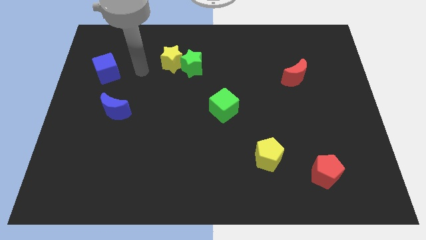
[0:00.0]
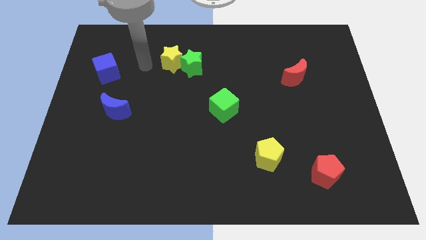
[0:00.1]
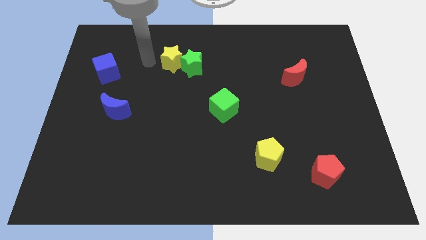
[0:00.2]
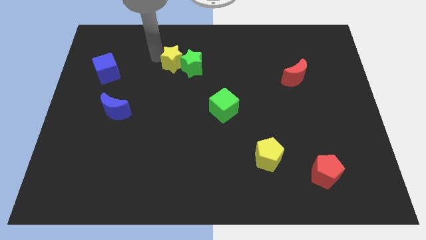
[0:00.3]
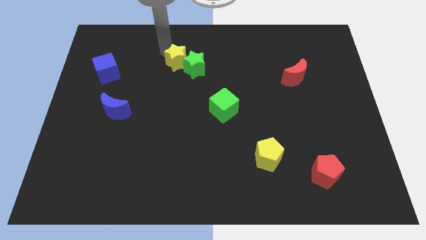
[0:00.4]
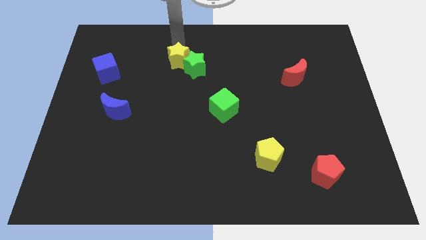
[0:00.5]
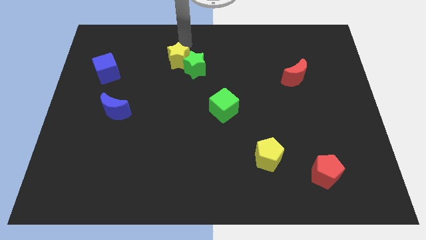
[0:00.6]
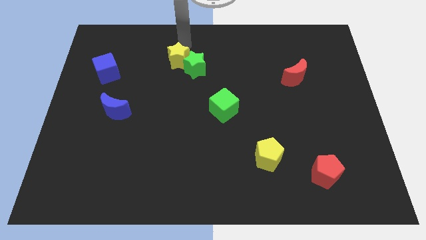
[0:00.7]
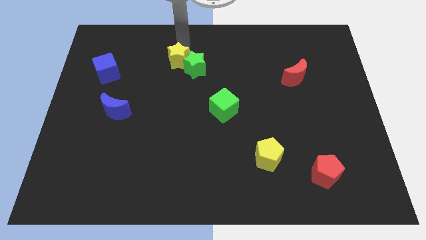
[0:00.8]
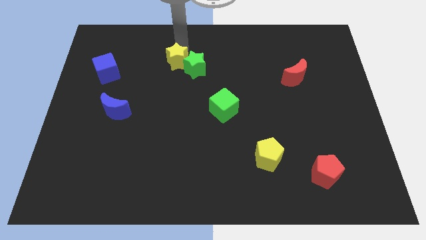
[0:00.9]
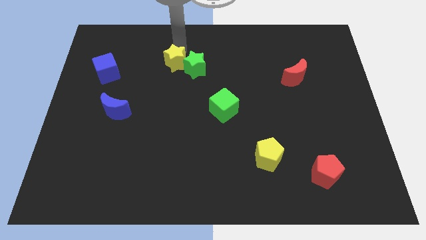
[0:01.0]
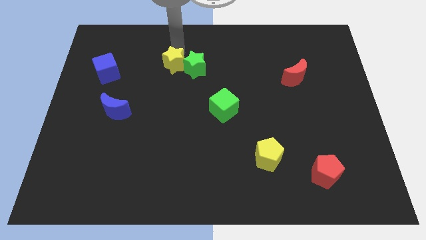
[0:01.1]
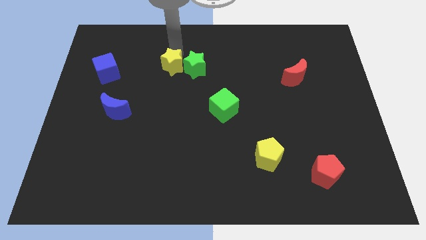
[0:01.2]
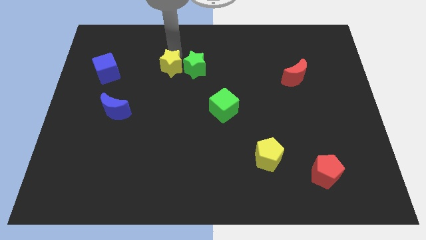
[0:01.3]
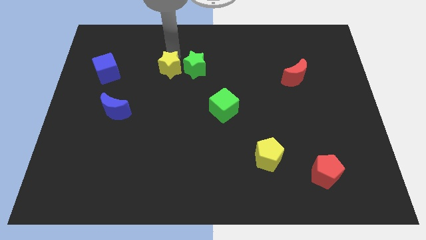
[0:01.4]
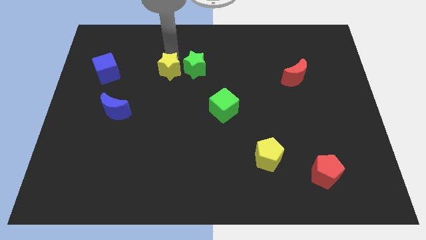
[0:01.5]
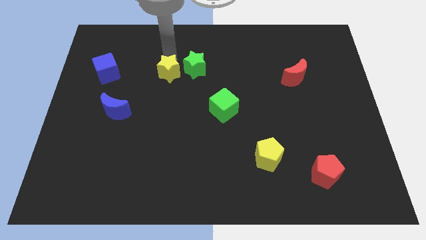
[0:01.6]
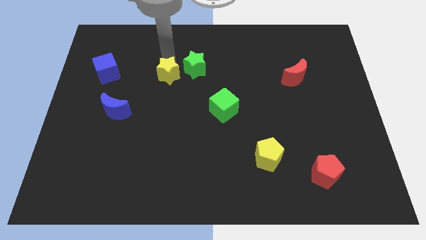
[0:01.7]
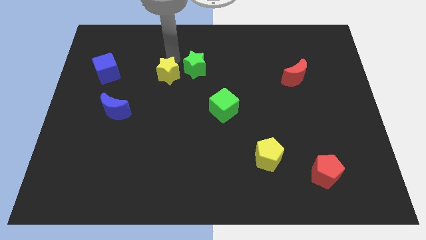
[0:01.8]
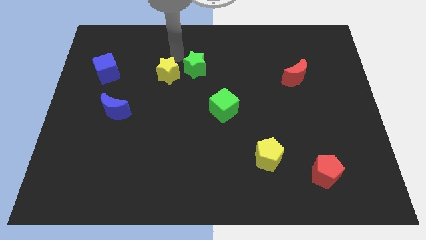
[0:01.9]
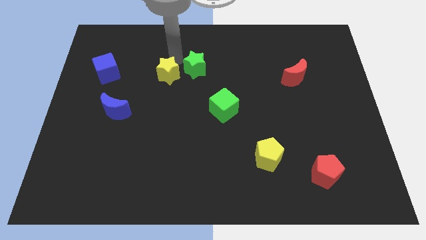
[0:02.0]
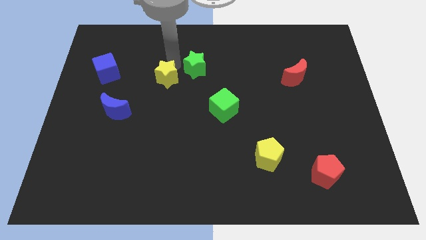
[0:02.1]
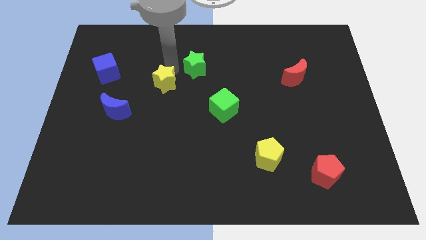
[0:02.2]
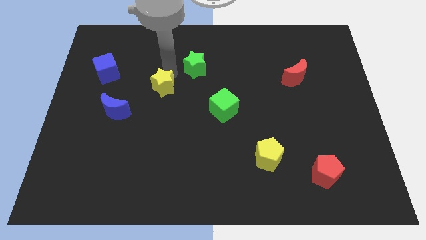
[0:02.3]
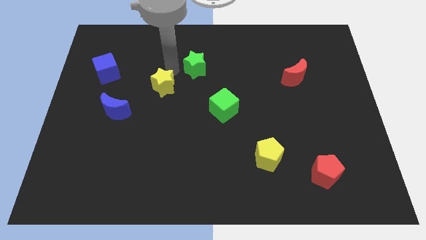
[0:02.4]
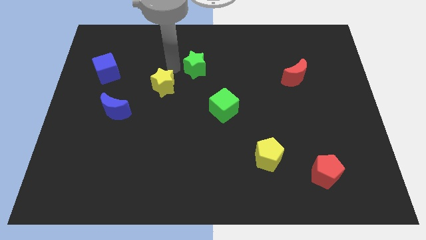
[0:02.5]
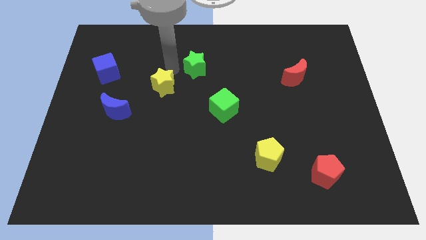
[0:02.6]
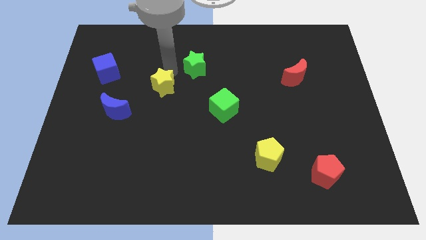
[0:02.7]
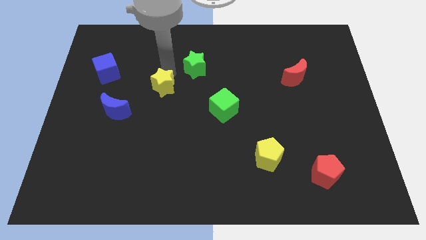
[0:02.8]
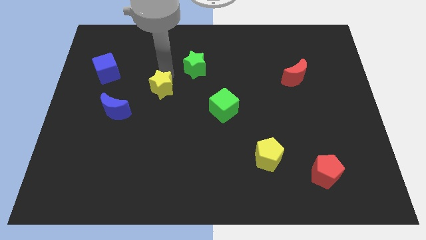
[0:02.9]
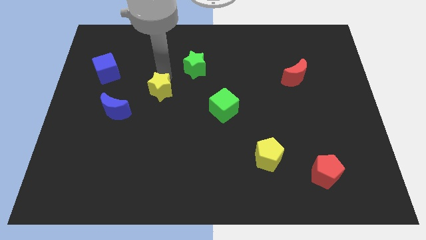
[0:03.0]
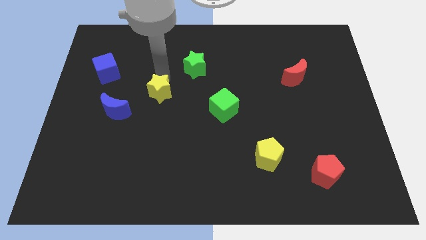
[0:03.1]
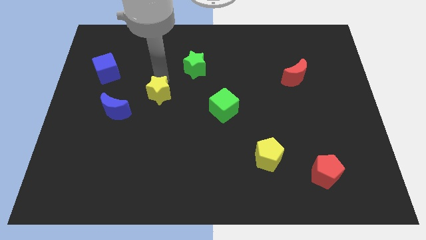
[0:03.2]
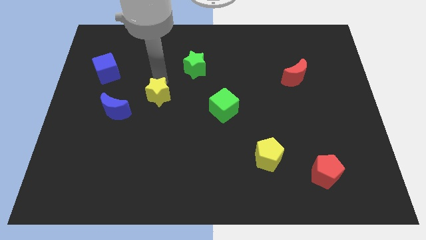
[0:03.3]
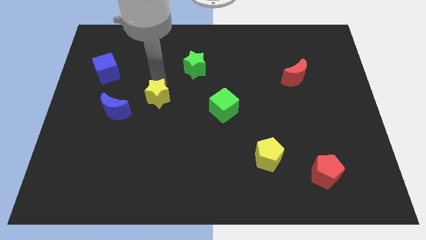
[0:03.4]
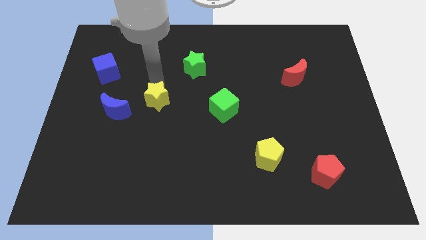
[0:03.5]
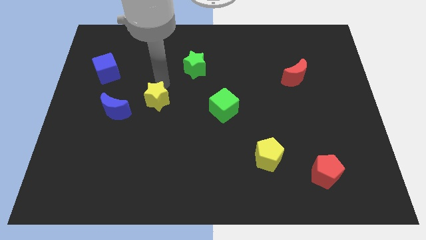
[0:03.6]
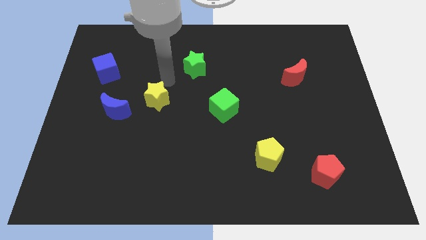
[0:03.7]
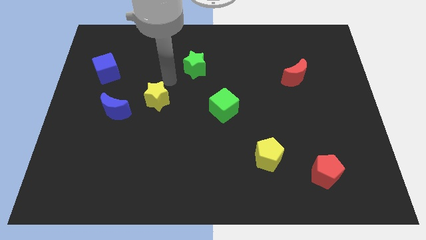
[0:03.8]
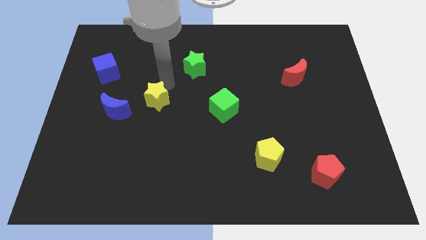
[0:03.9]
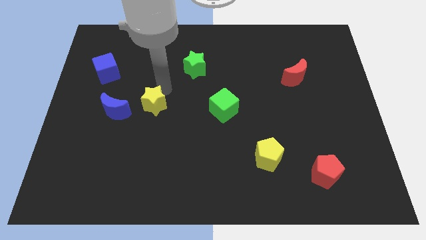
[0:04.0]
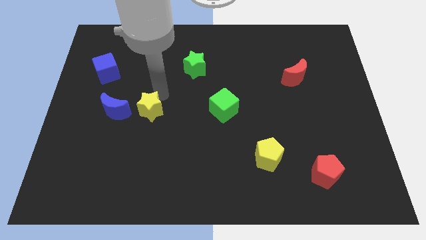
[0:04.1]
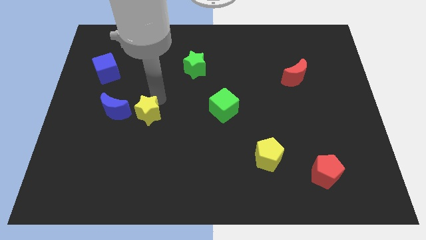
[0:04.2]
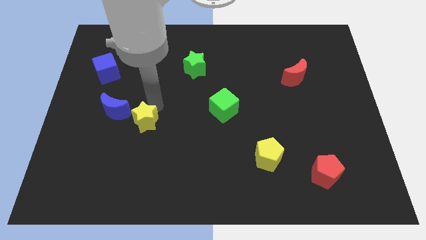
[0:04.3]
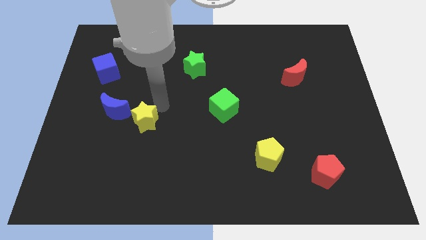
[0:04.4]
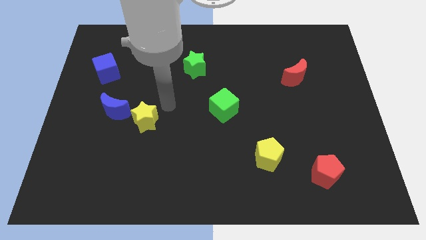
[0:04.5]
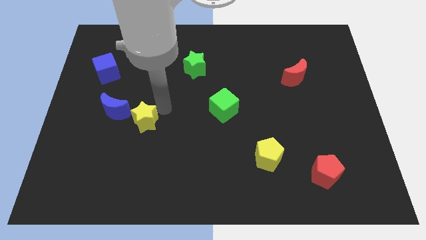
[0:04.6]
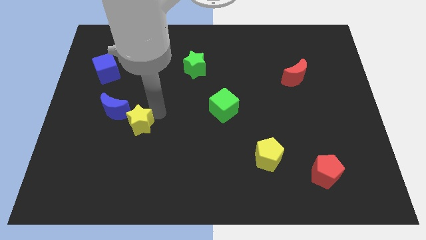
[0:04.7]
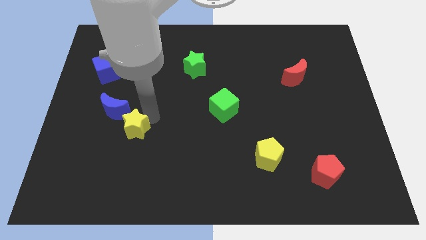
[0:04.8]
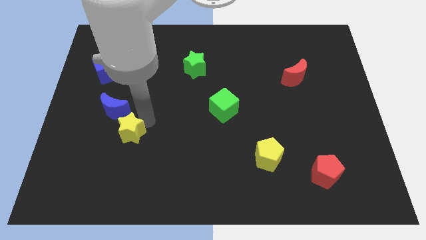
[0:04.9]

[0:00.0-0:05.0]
move the yellow star below the blue moon

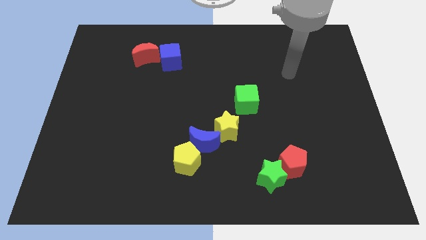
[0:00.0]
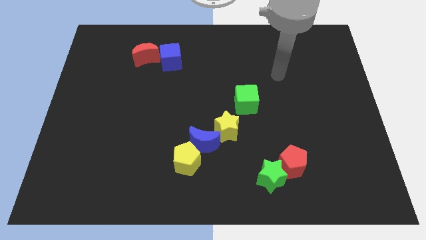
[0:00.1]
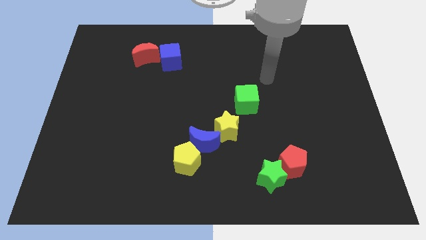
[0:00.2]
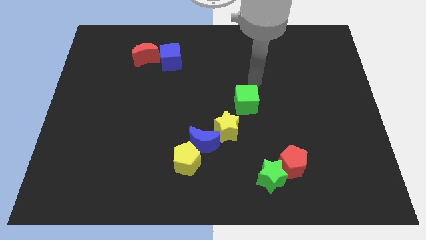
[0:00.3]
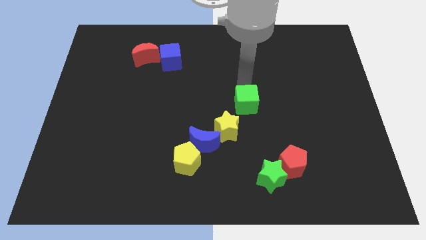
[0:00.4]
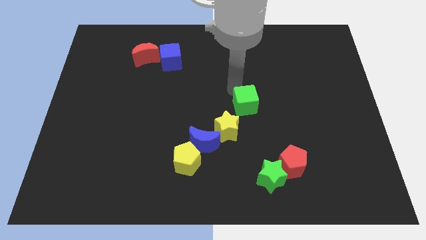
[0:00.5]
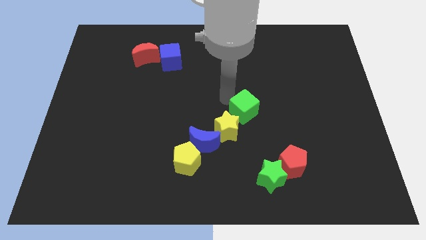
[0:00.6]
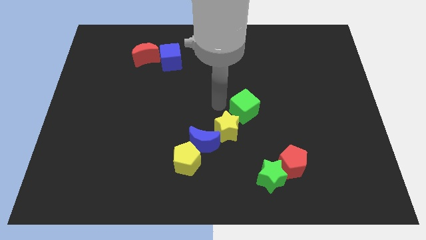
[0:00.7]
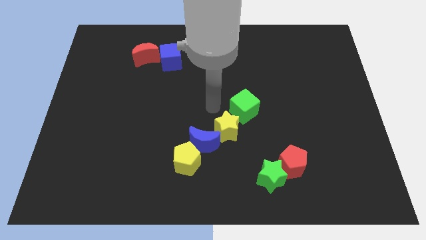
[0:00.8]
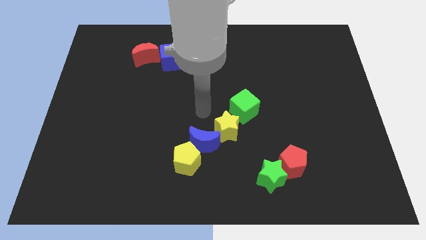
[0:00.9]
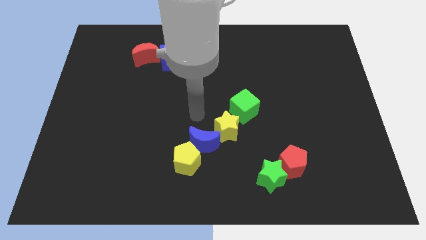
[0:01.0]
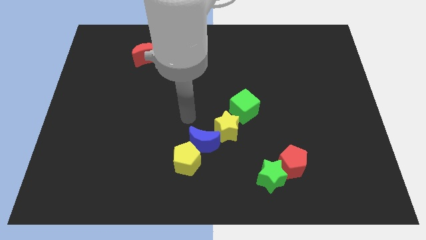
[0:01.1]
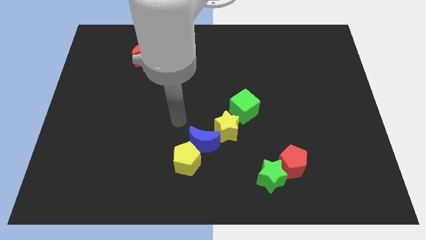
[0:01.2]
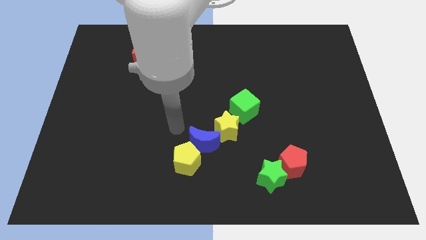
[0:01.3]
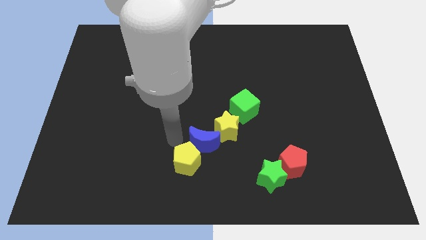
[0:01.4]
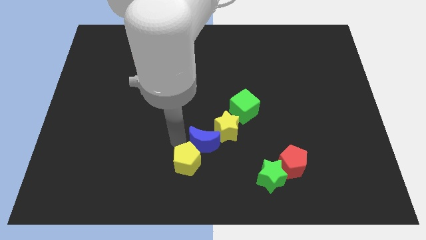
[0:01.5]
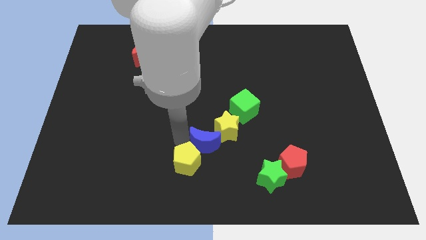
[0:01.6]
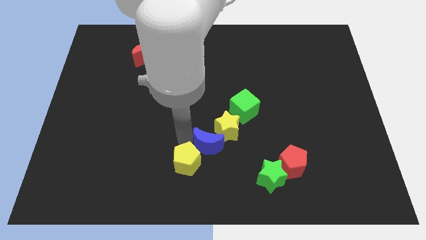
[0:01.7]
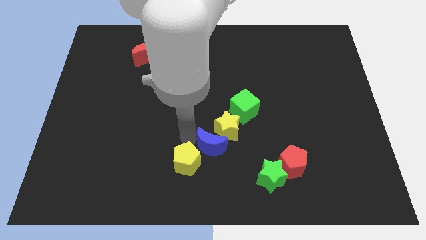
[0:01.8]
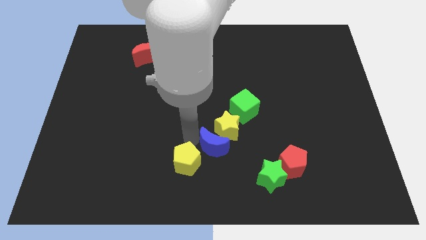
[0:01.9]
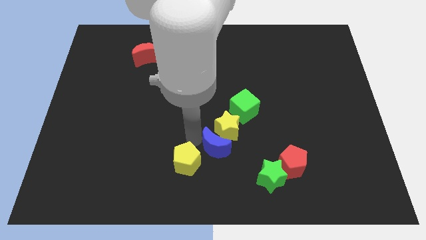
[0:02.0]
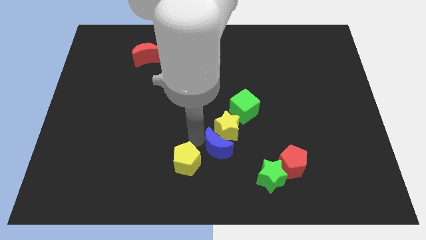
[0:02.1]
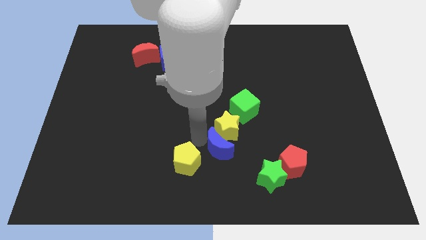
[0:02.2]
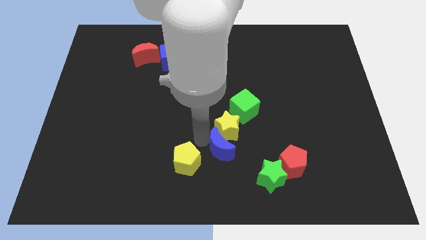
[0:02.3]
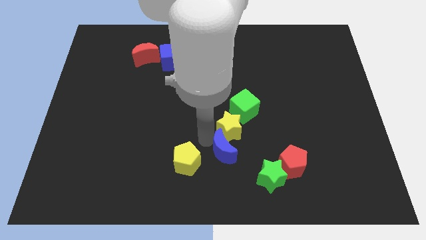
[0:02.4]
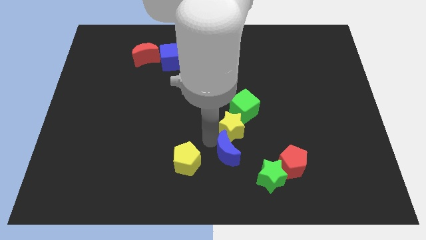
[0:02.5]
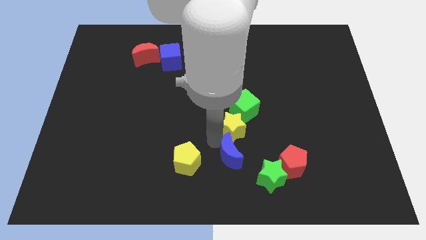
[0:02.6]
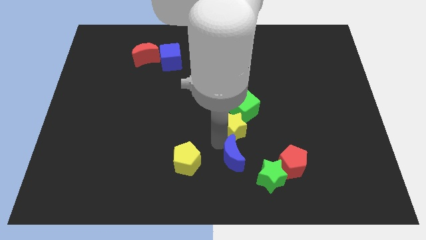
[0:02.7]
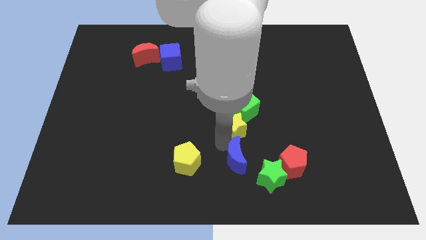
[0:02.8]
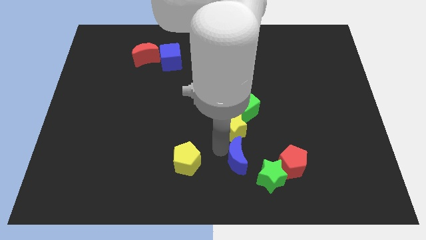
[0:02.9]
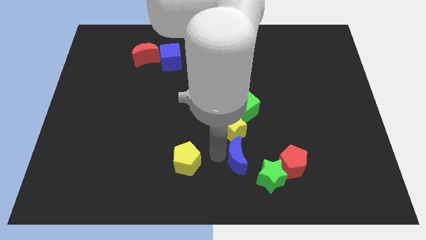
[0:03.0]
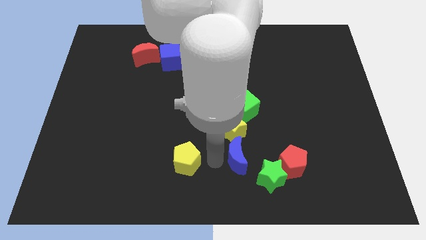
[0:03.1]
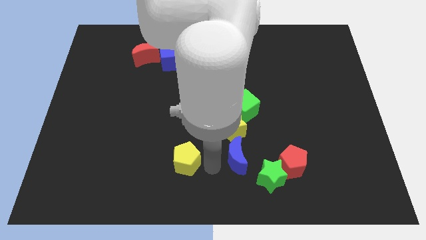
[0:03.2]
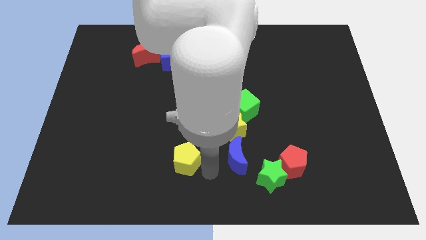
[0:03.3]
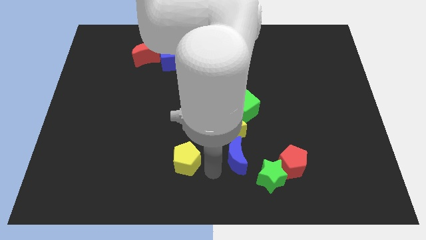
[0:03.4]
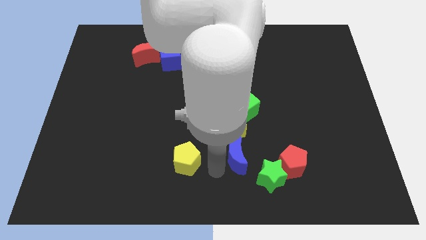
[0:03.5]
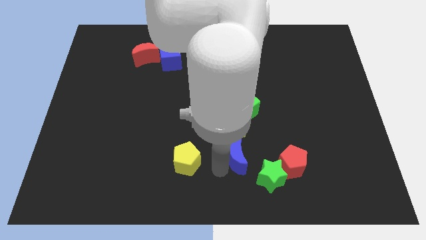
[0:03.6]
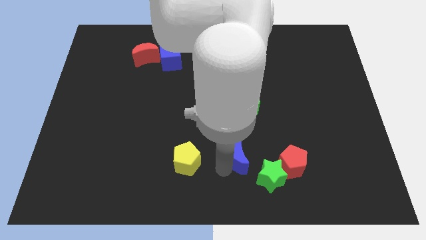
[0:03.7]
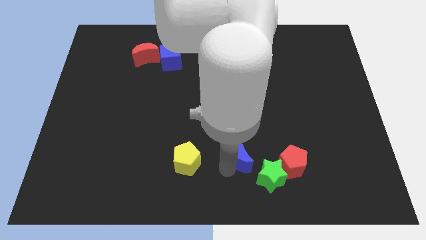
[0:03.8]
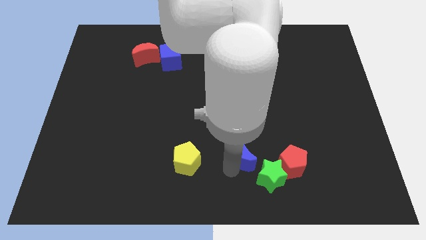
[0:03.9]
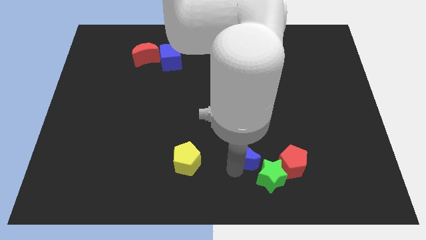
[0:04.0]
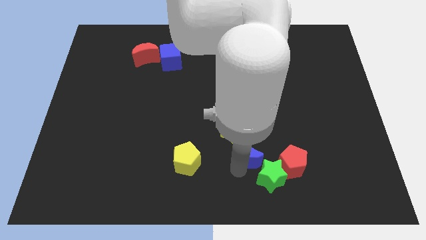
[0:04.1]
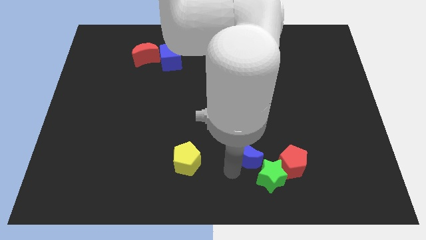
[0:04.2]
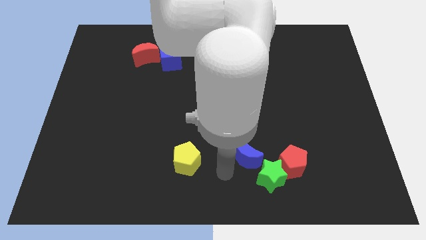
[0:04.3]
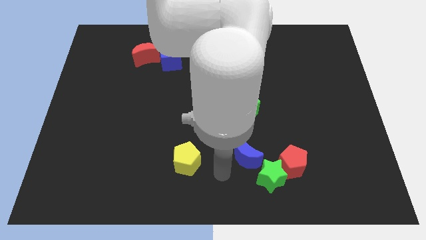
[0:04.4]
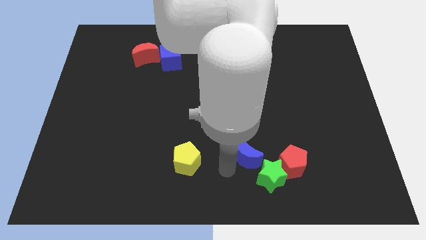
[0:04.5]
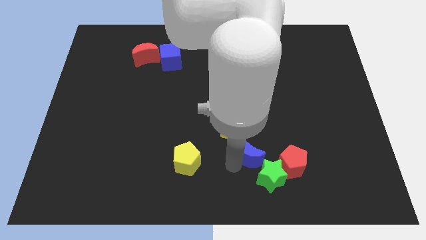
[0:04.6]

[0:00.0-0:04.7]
move the blue moon diagonally up and to the left of the red pentagon
